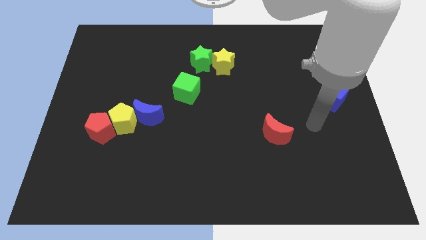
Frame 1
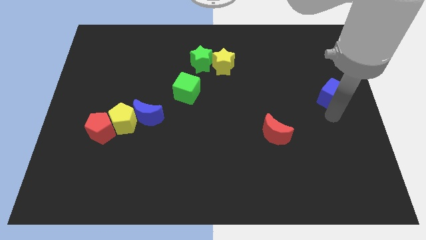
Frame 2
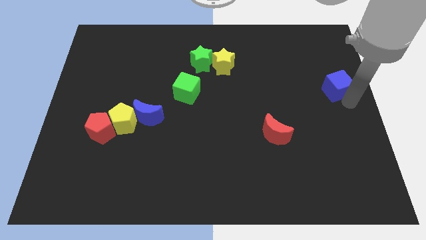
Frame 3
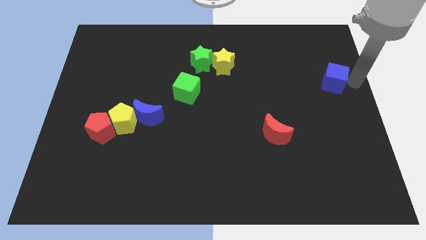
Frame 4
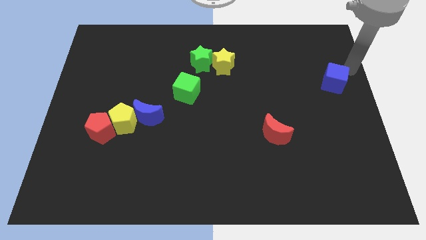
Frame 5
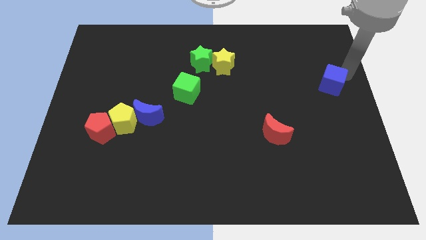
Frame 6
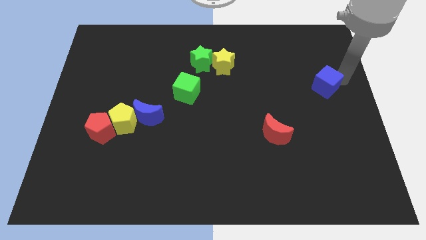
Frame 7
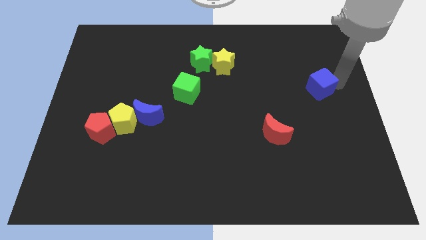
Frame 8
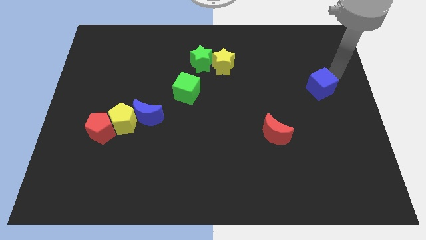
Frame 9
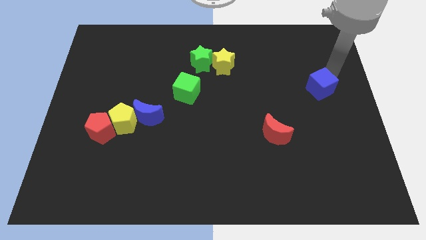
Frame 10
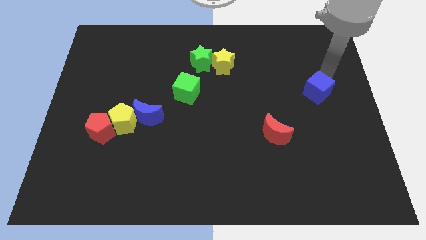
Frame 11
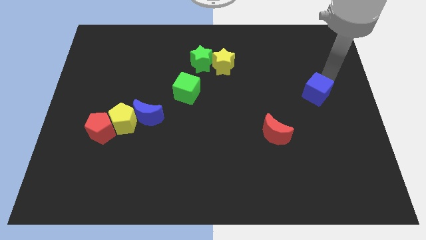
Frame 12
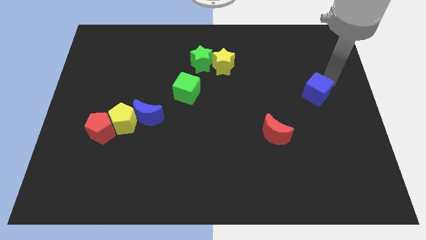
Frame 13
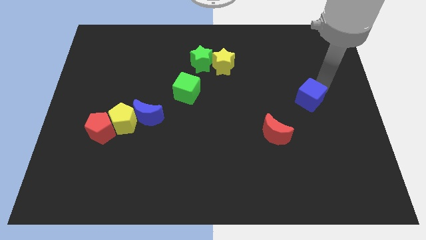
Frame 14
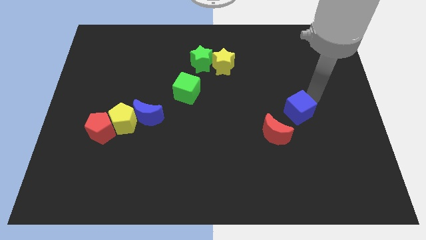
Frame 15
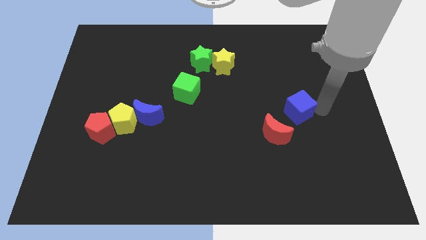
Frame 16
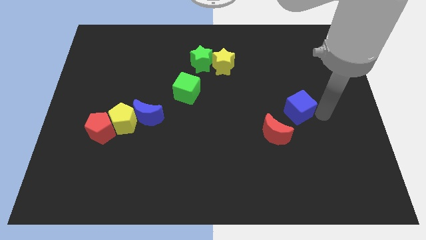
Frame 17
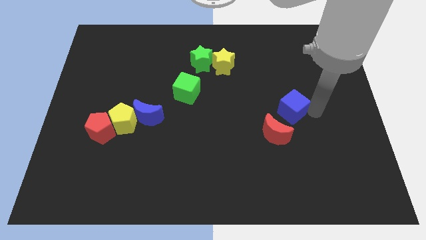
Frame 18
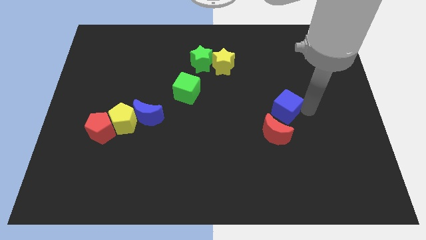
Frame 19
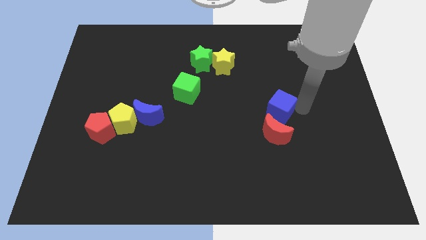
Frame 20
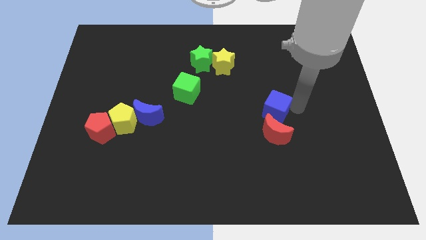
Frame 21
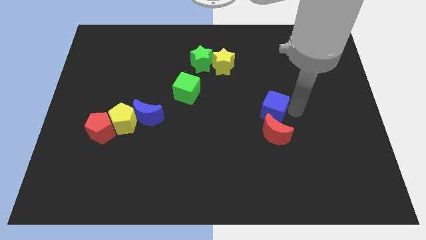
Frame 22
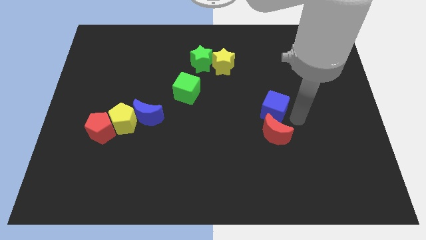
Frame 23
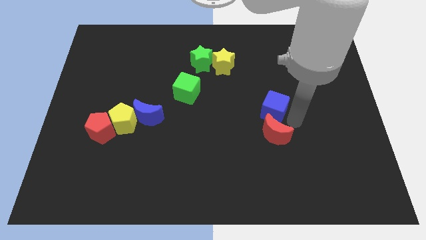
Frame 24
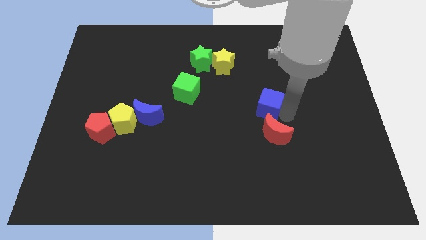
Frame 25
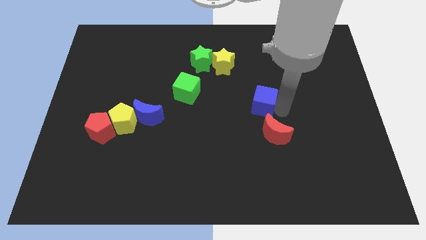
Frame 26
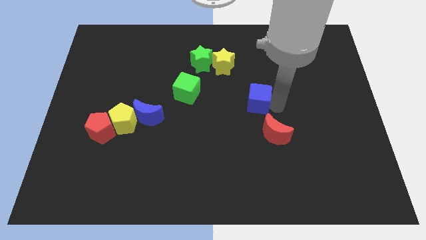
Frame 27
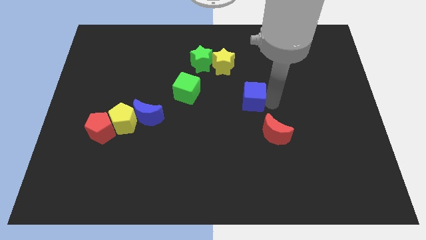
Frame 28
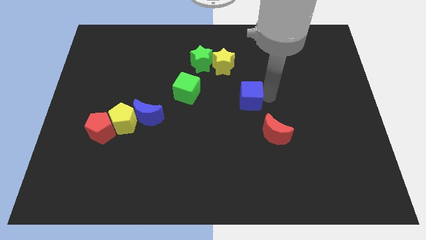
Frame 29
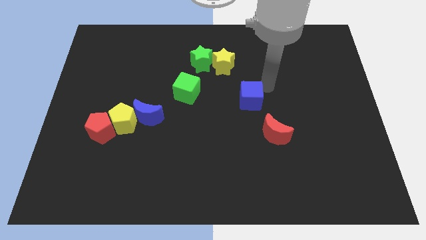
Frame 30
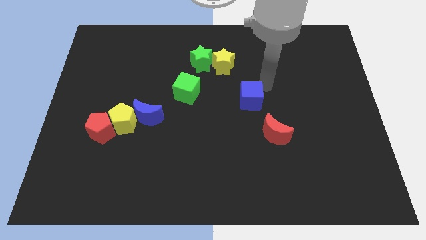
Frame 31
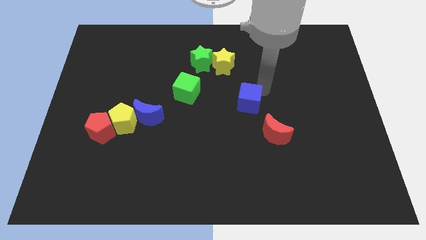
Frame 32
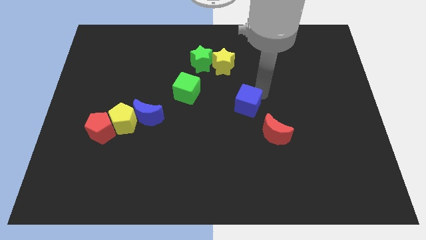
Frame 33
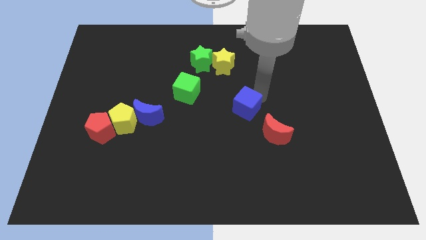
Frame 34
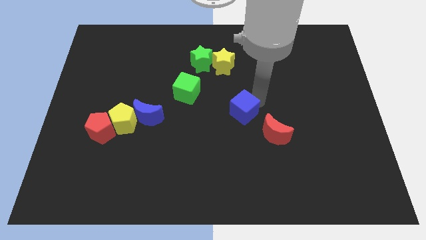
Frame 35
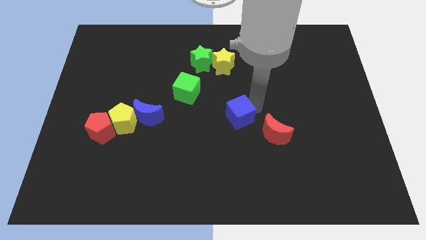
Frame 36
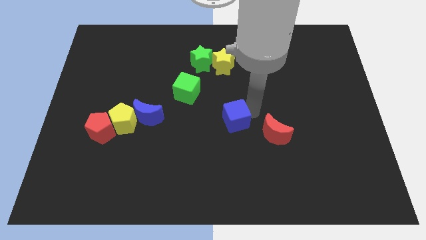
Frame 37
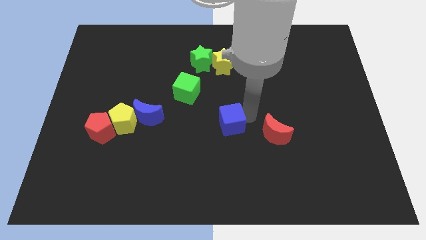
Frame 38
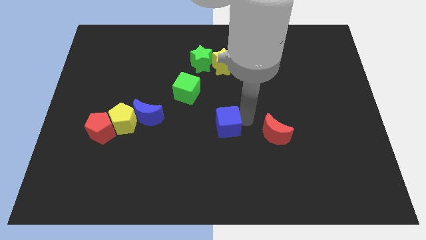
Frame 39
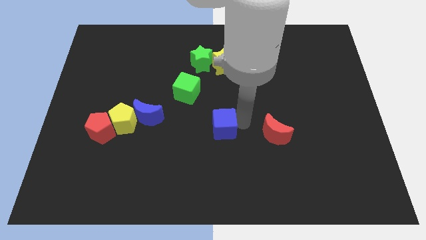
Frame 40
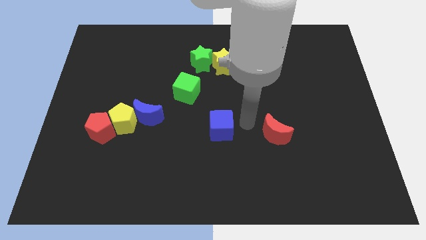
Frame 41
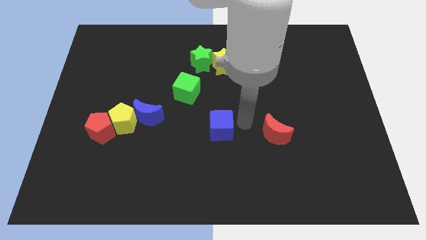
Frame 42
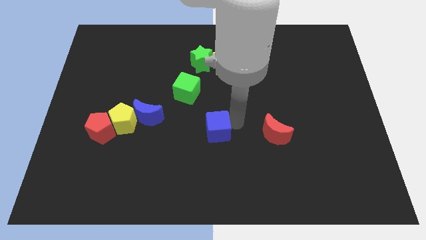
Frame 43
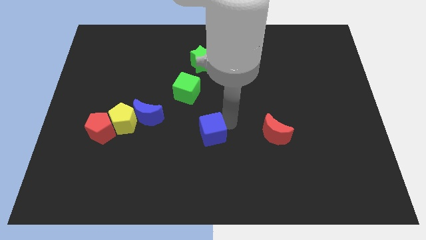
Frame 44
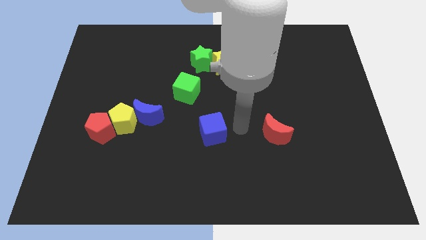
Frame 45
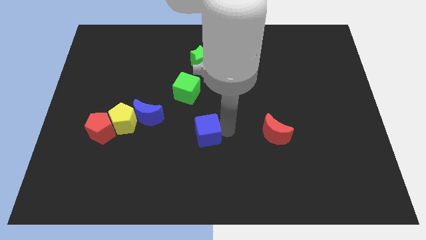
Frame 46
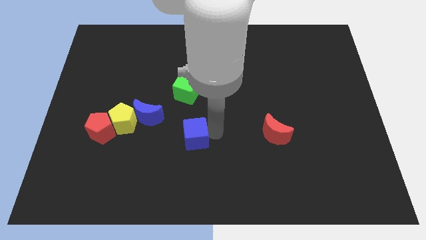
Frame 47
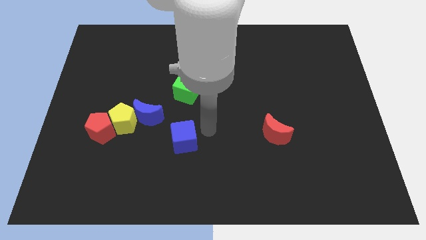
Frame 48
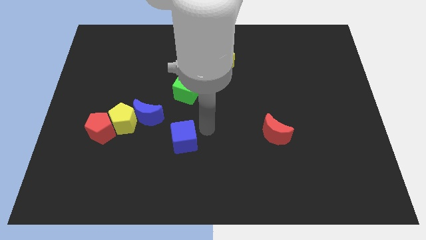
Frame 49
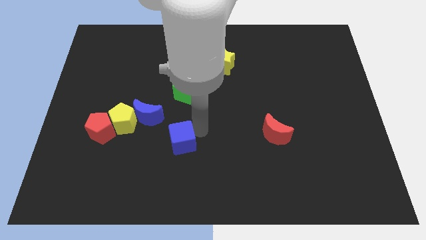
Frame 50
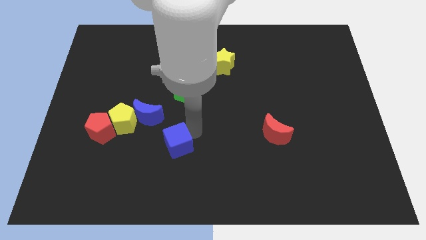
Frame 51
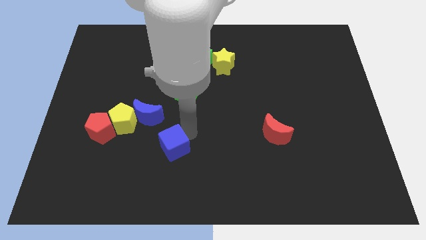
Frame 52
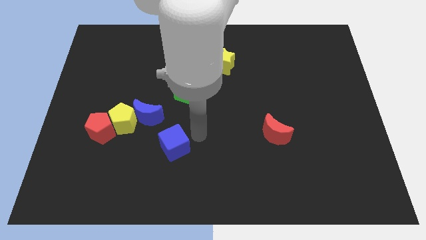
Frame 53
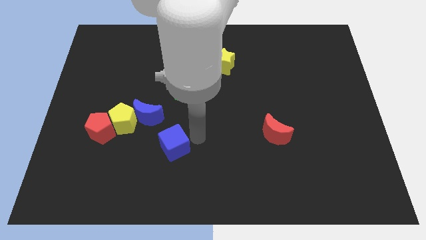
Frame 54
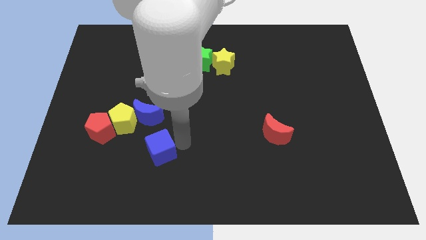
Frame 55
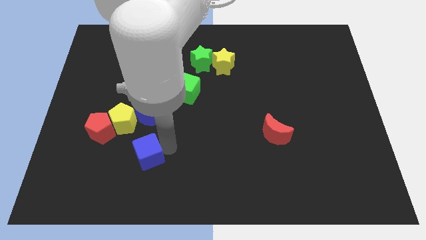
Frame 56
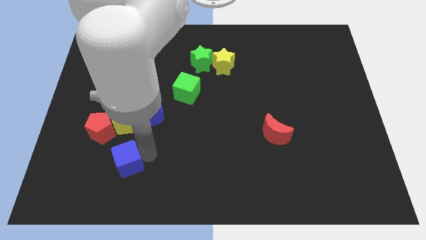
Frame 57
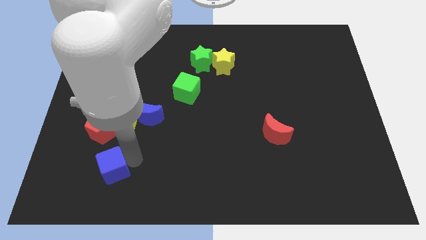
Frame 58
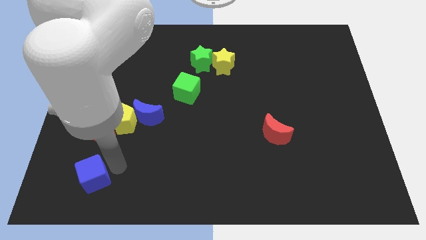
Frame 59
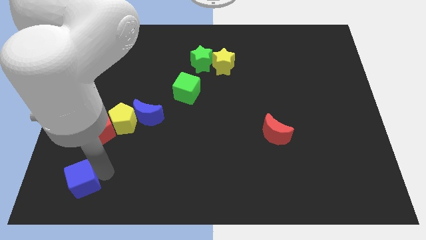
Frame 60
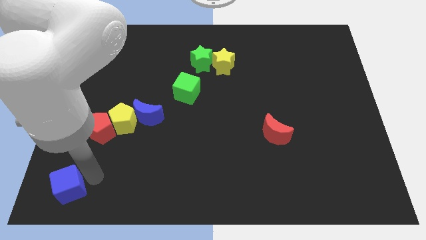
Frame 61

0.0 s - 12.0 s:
put the blue cube to the bottom left of the board

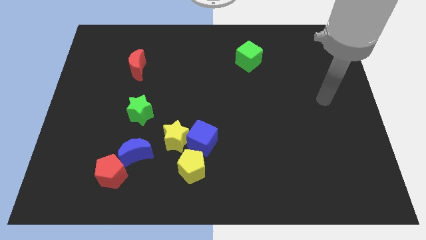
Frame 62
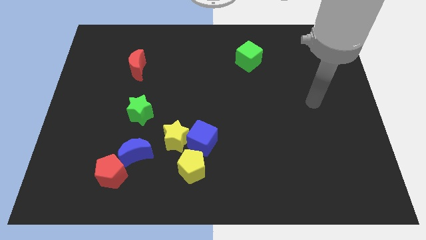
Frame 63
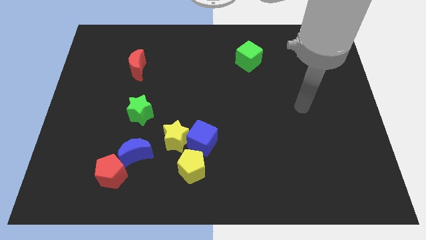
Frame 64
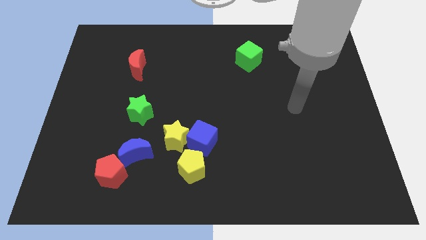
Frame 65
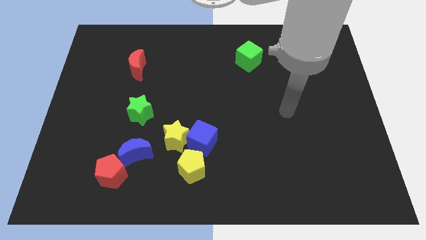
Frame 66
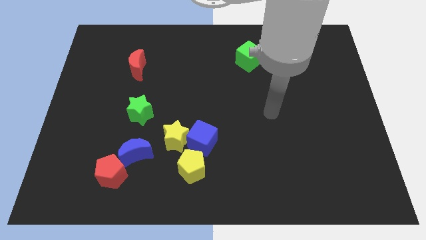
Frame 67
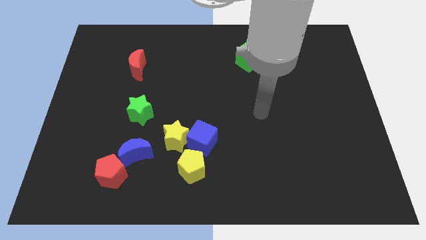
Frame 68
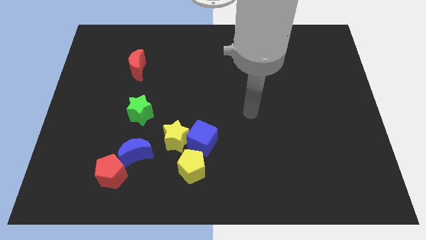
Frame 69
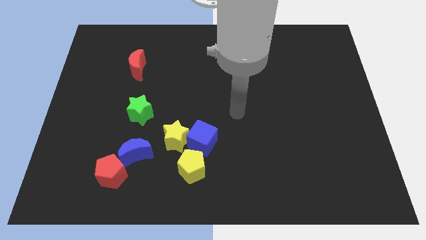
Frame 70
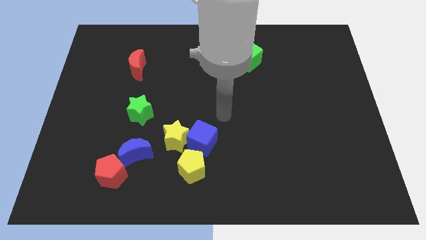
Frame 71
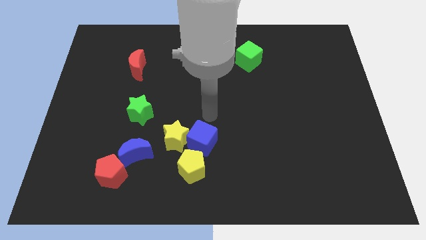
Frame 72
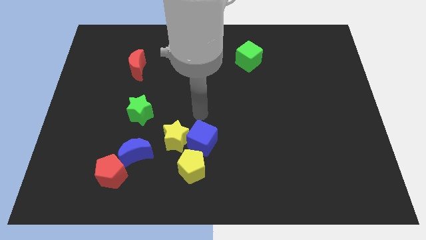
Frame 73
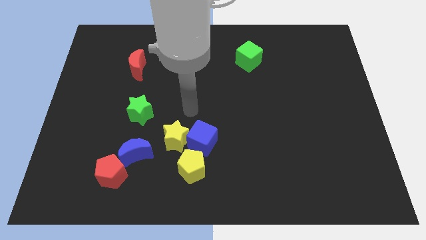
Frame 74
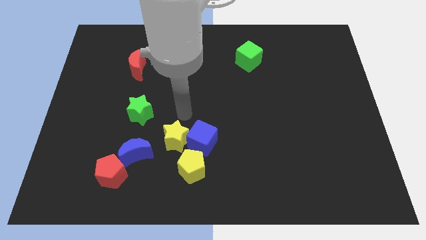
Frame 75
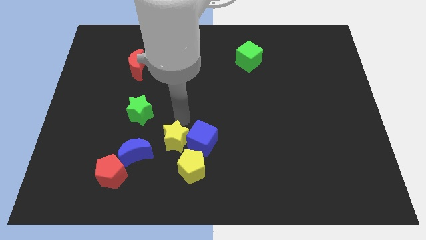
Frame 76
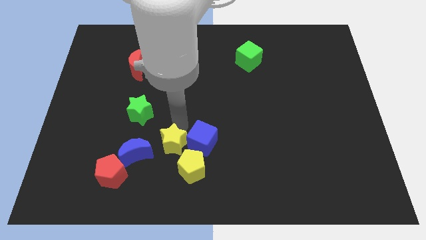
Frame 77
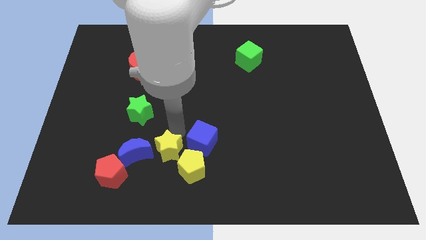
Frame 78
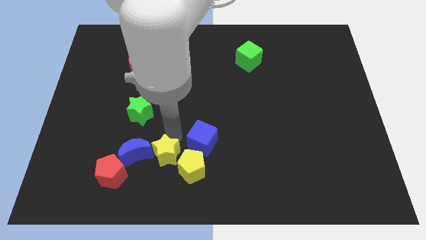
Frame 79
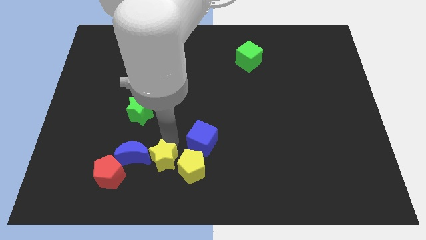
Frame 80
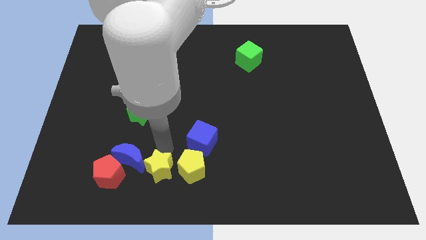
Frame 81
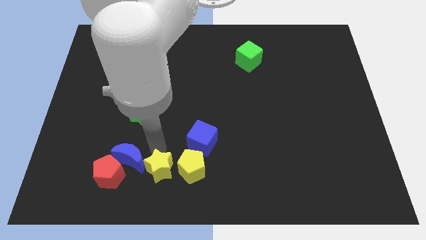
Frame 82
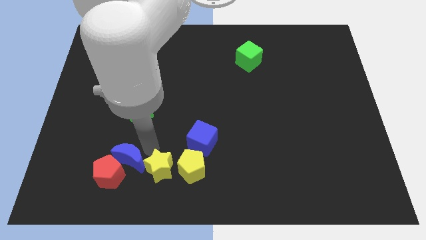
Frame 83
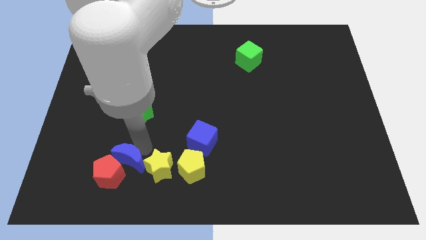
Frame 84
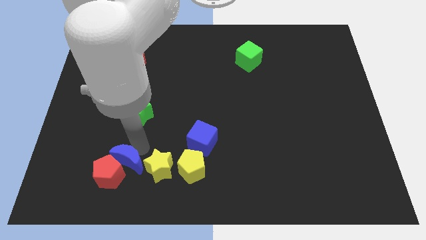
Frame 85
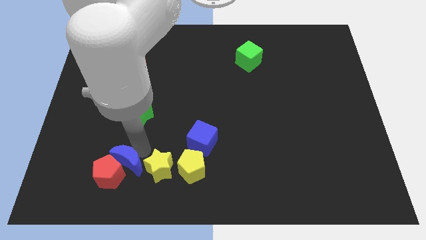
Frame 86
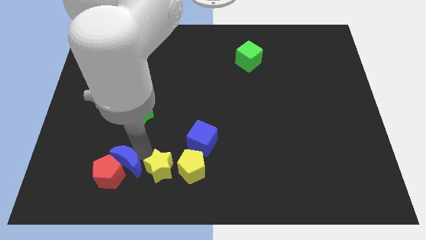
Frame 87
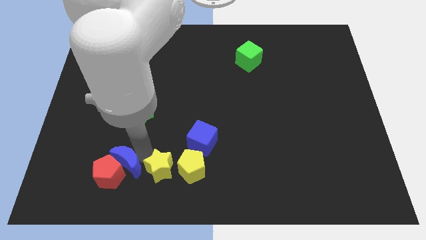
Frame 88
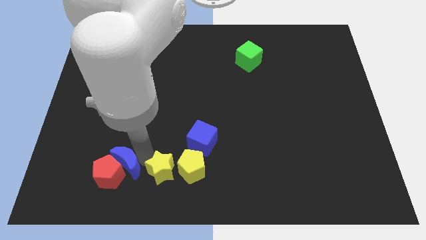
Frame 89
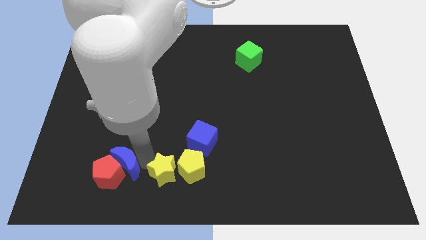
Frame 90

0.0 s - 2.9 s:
move the yellow star to the bottom
